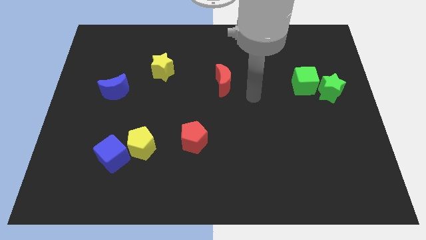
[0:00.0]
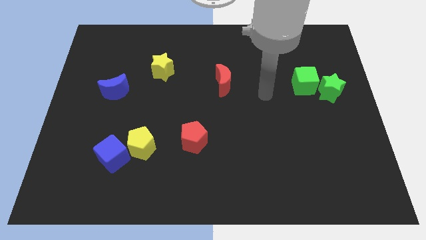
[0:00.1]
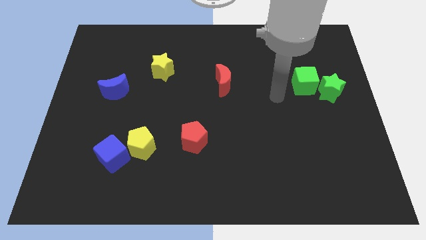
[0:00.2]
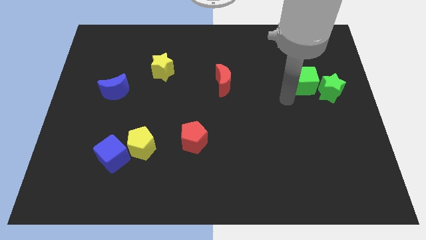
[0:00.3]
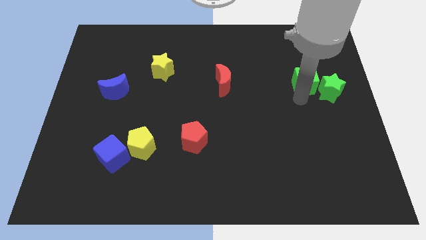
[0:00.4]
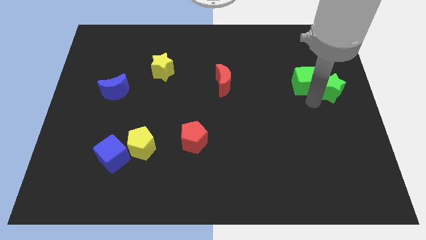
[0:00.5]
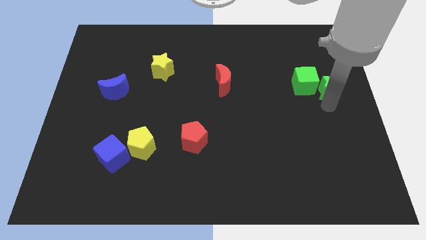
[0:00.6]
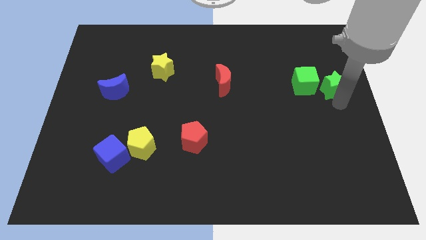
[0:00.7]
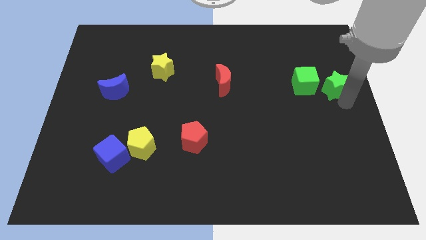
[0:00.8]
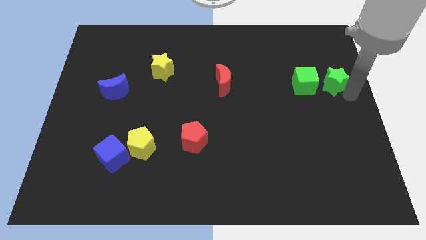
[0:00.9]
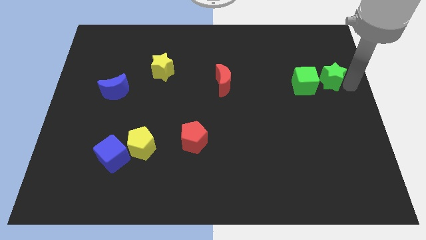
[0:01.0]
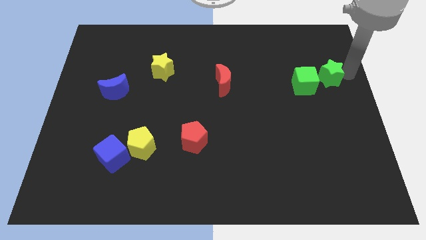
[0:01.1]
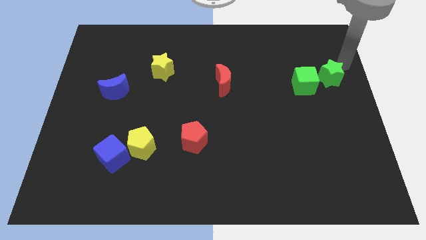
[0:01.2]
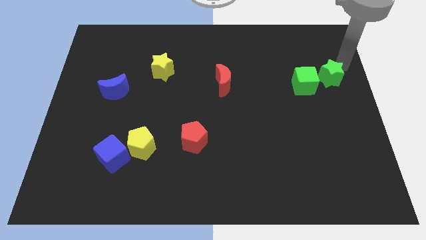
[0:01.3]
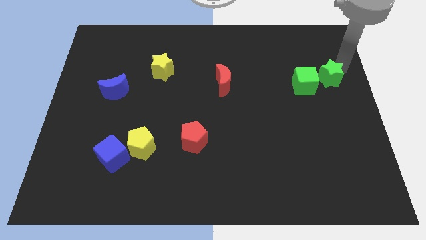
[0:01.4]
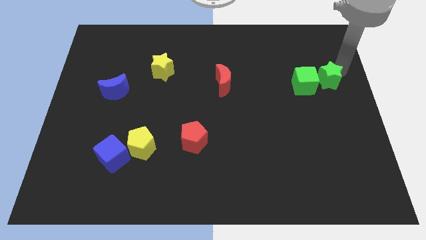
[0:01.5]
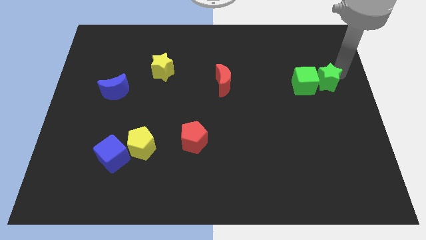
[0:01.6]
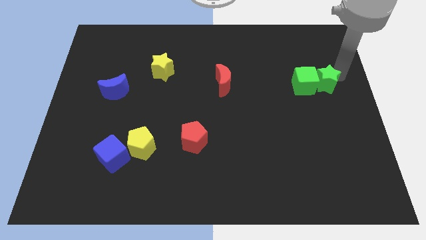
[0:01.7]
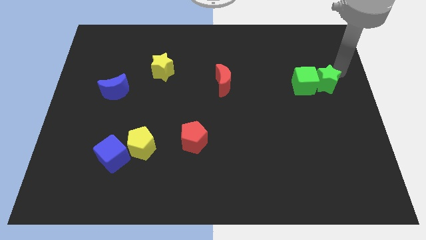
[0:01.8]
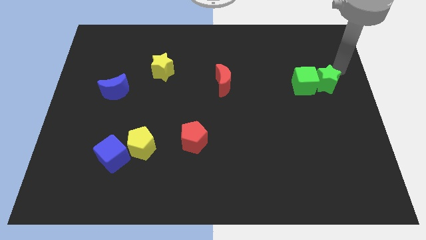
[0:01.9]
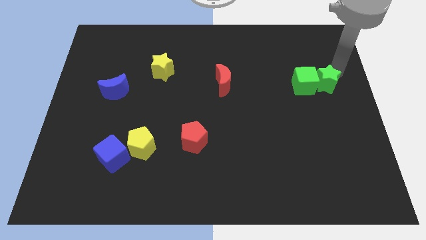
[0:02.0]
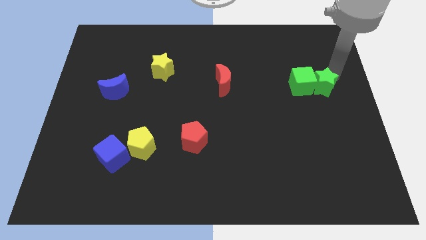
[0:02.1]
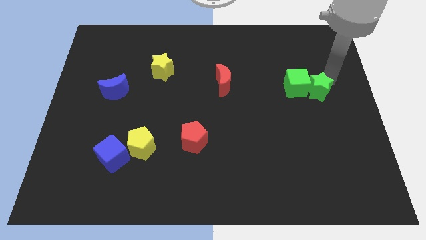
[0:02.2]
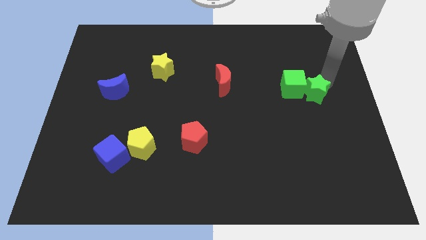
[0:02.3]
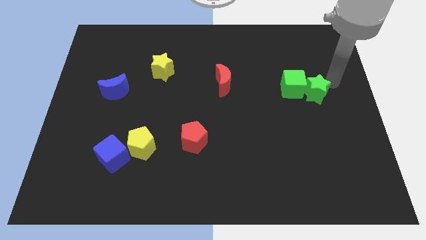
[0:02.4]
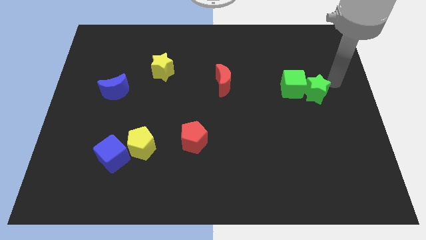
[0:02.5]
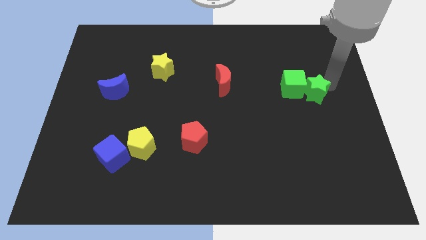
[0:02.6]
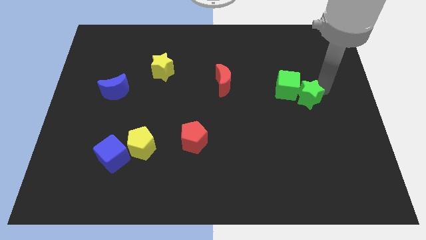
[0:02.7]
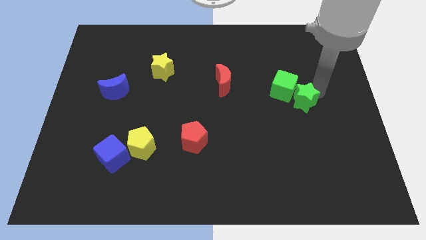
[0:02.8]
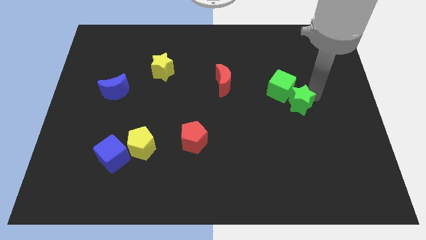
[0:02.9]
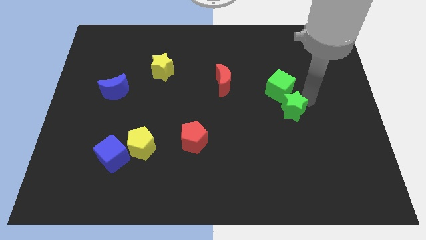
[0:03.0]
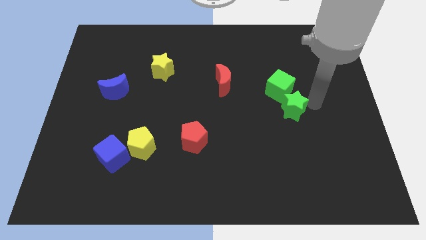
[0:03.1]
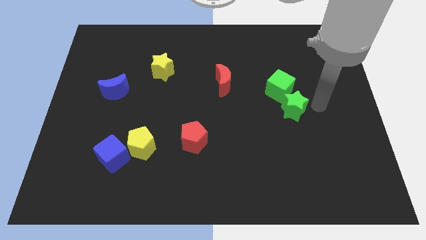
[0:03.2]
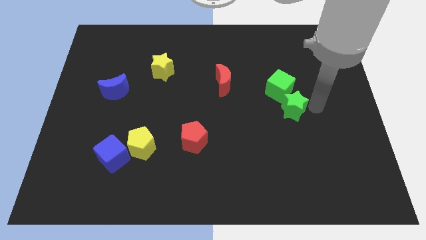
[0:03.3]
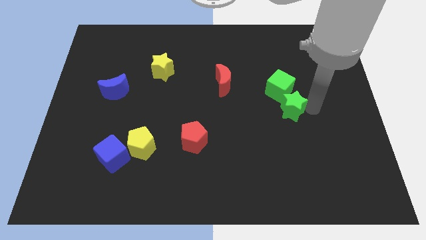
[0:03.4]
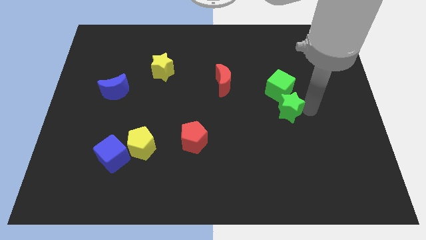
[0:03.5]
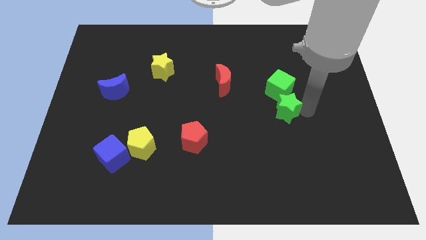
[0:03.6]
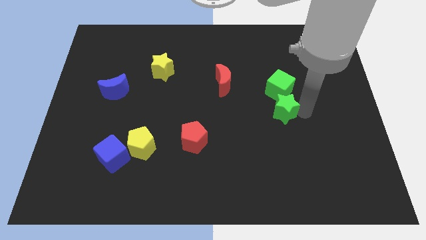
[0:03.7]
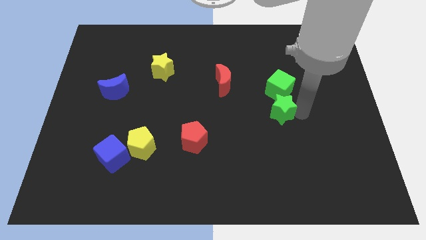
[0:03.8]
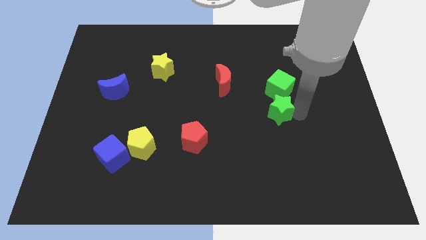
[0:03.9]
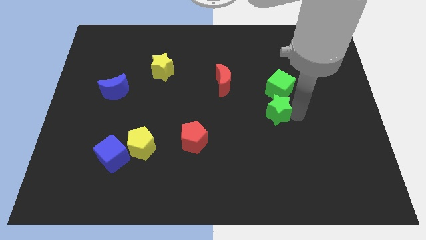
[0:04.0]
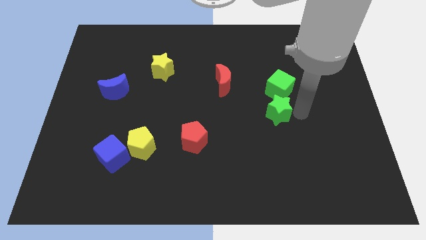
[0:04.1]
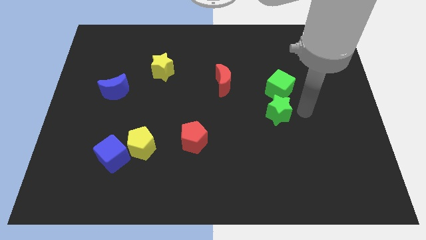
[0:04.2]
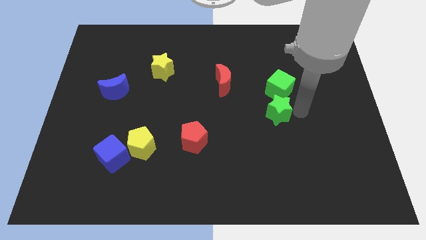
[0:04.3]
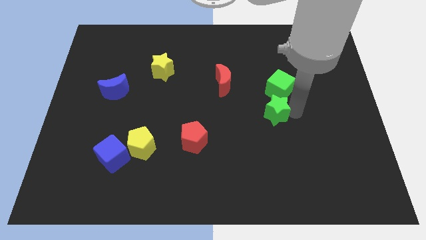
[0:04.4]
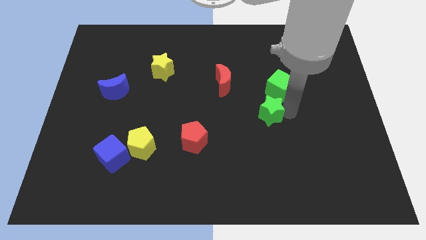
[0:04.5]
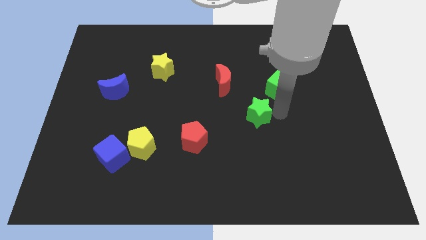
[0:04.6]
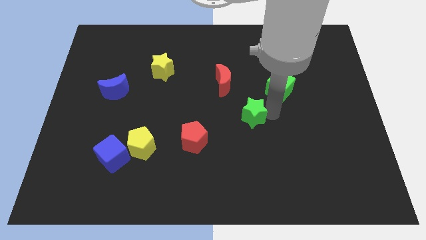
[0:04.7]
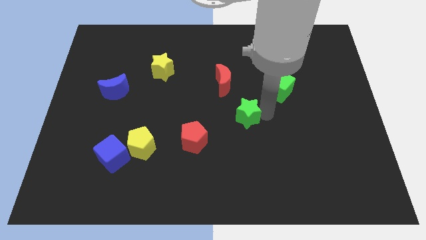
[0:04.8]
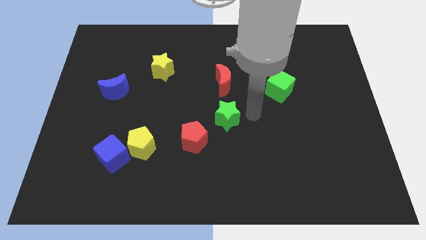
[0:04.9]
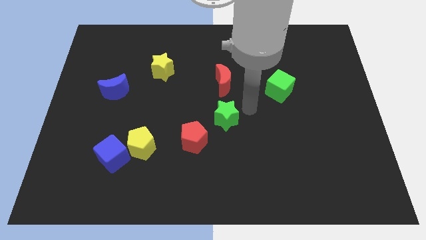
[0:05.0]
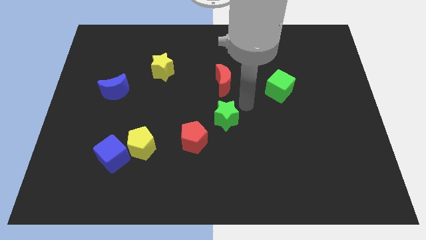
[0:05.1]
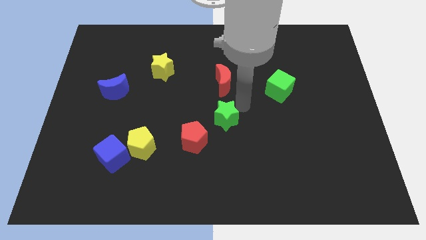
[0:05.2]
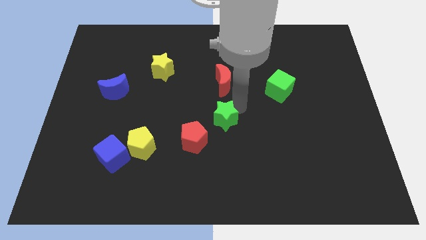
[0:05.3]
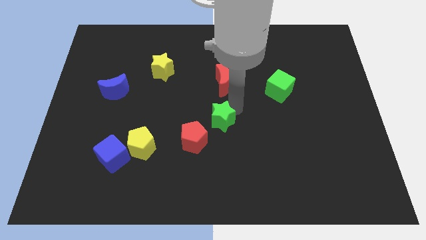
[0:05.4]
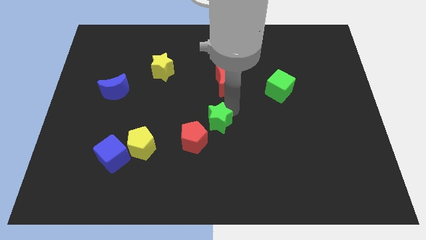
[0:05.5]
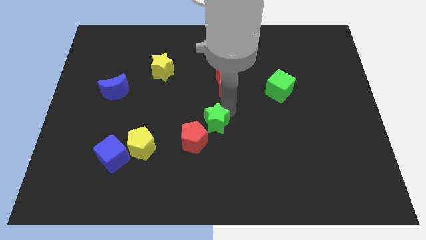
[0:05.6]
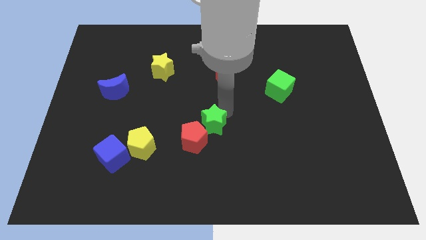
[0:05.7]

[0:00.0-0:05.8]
slide the green star next to the red pentagon

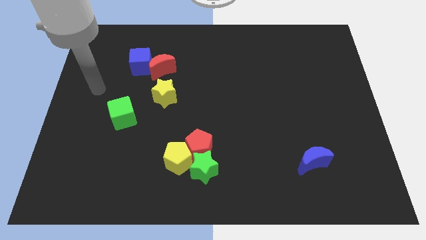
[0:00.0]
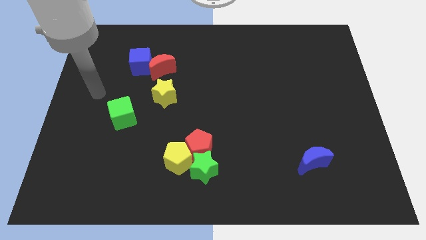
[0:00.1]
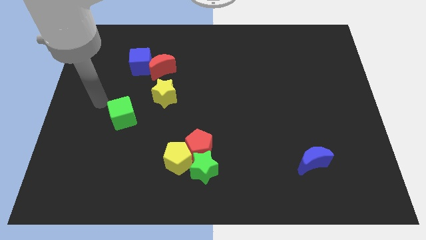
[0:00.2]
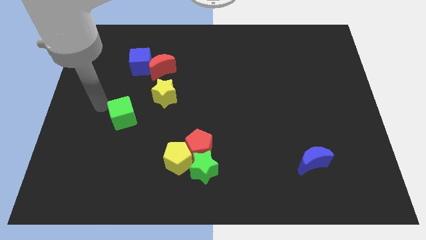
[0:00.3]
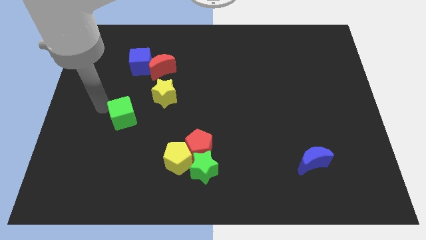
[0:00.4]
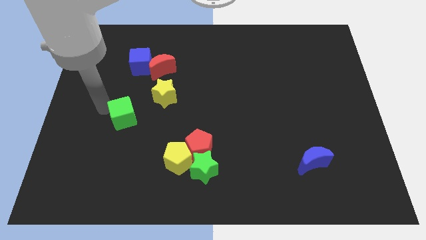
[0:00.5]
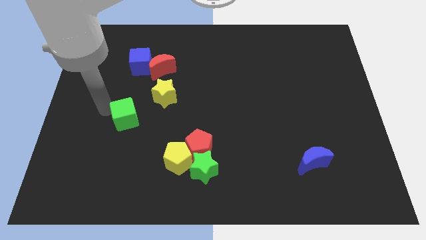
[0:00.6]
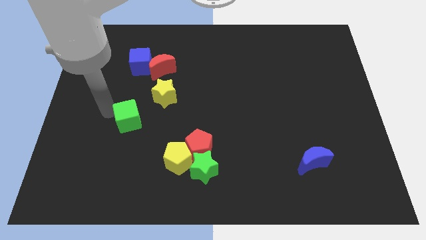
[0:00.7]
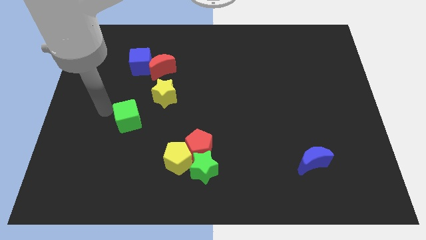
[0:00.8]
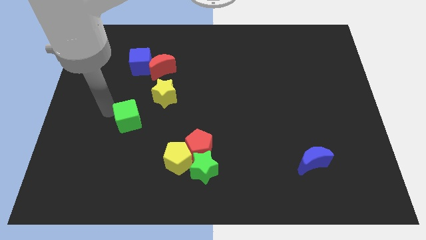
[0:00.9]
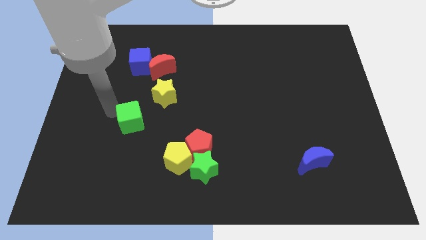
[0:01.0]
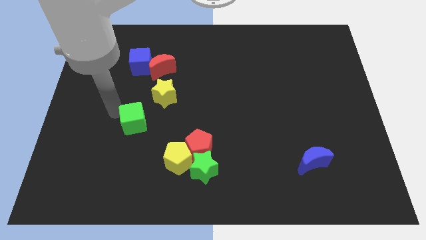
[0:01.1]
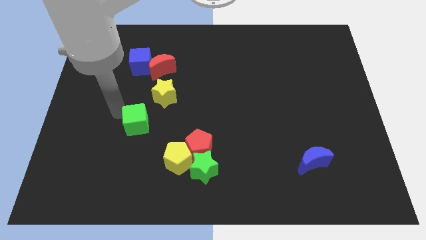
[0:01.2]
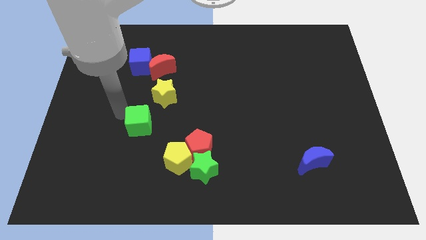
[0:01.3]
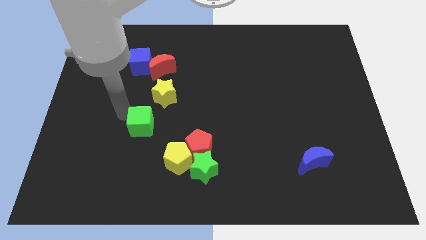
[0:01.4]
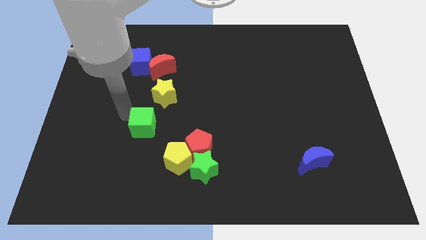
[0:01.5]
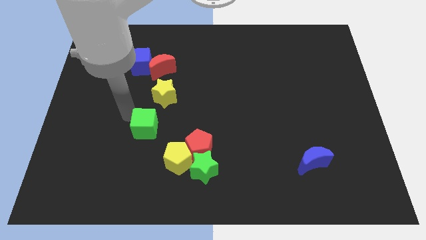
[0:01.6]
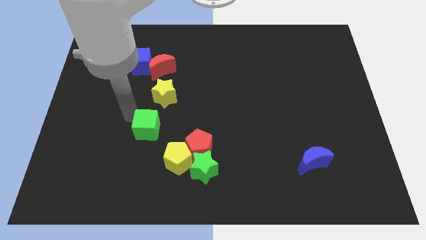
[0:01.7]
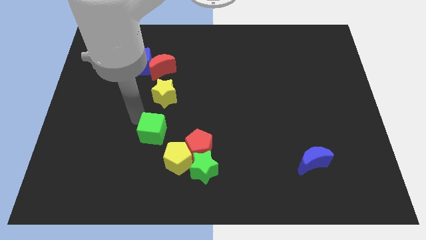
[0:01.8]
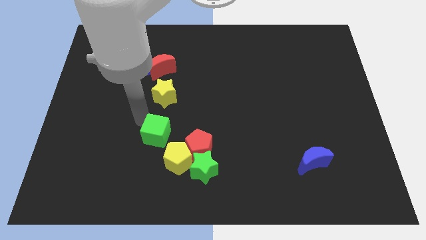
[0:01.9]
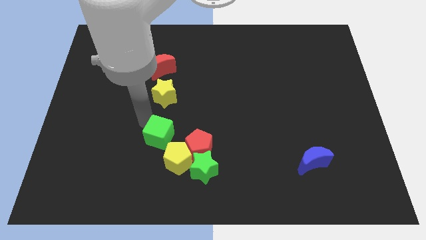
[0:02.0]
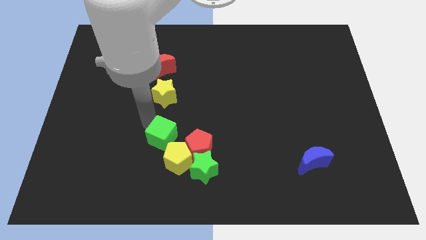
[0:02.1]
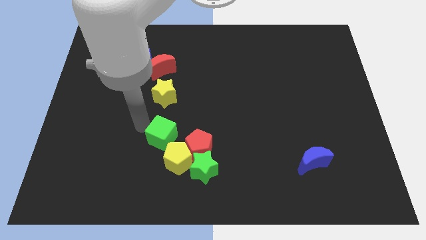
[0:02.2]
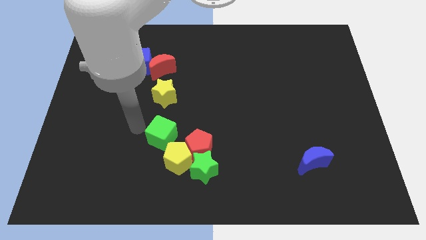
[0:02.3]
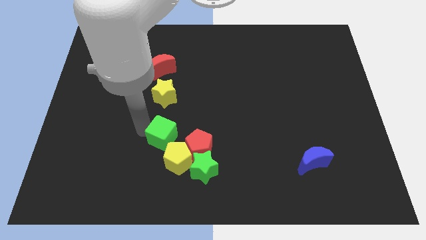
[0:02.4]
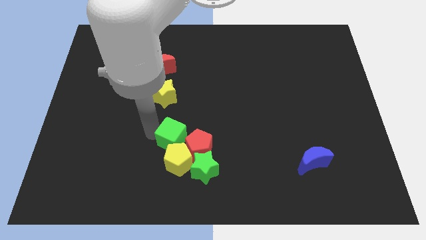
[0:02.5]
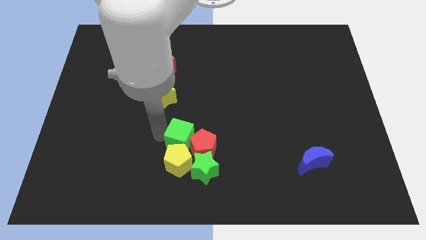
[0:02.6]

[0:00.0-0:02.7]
slide the green cube close to the red pentagon
